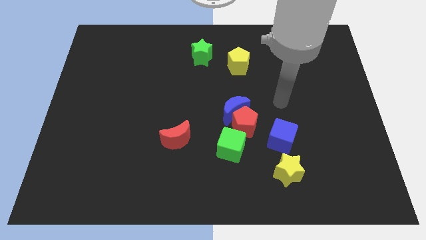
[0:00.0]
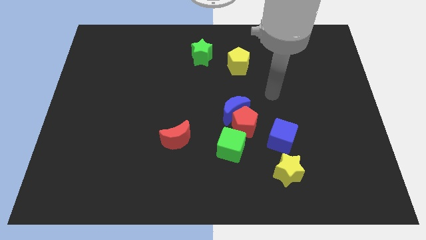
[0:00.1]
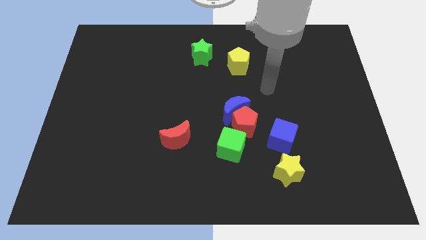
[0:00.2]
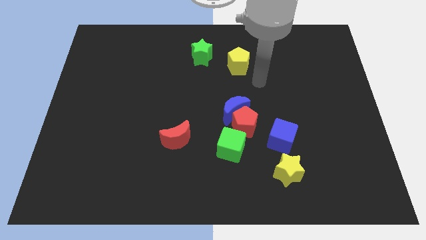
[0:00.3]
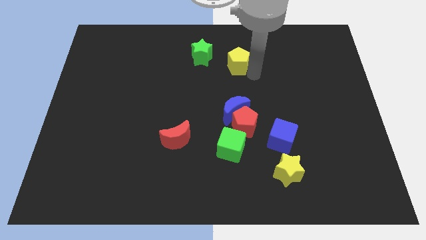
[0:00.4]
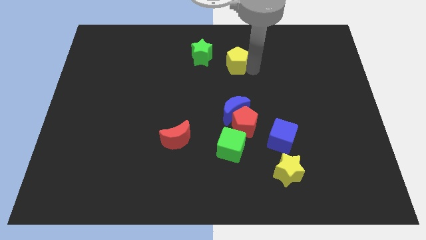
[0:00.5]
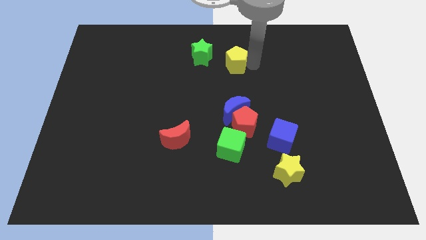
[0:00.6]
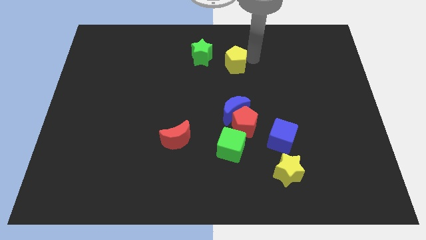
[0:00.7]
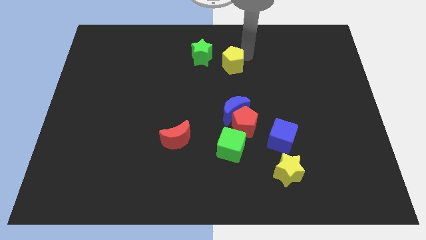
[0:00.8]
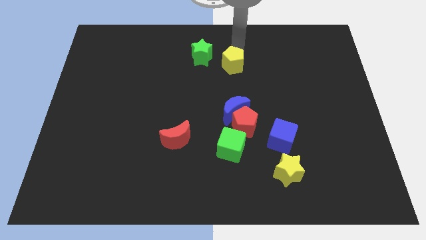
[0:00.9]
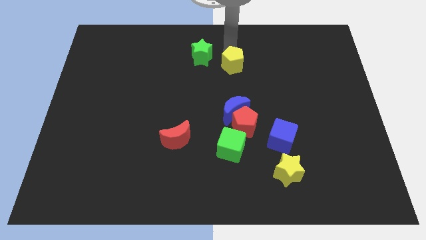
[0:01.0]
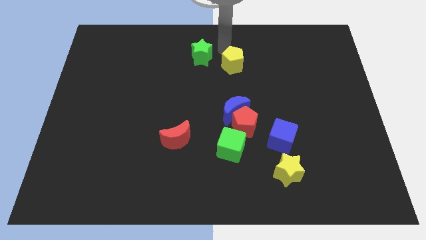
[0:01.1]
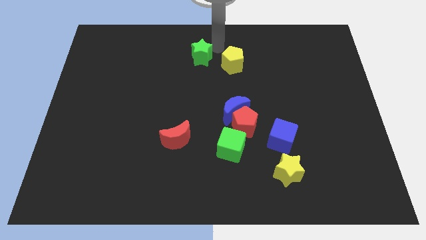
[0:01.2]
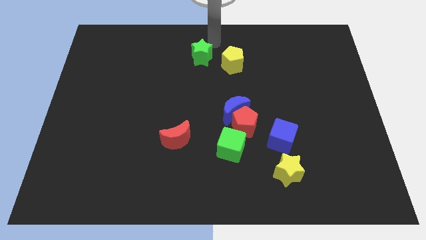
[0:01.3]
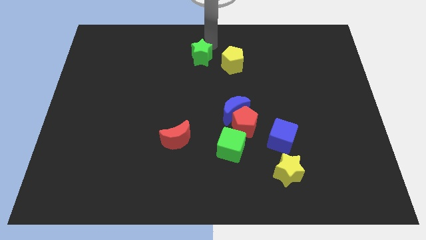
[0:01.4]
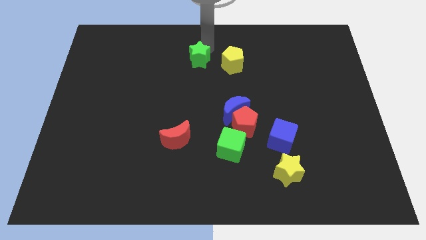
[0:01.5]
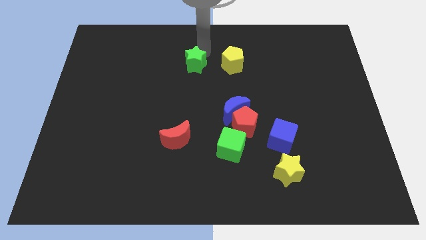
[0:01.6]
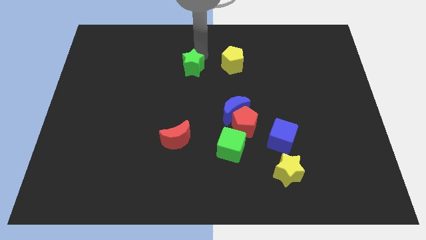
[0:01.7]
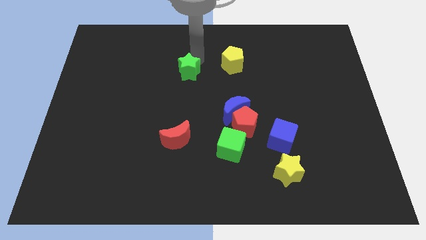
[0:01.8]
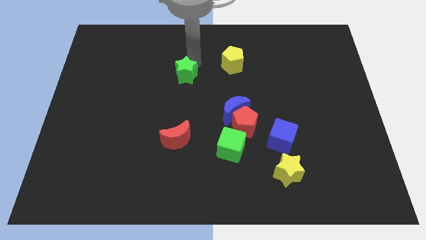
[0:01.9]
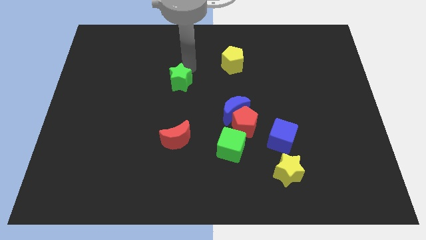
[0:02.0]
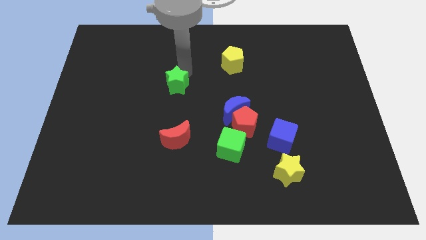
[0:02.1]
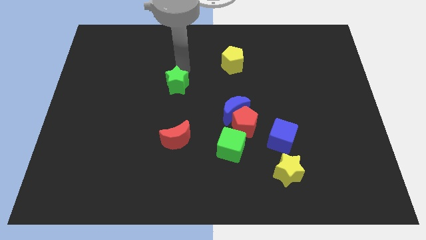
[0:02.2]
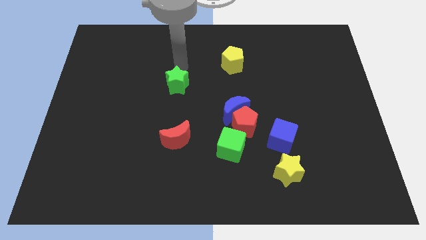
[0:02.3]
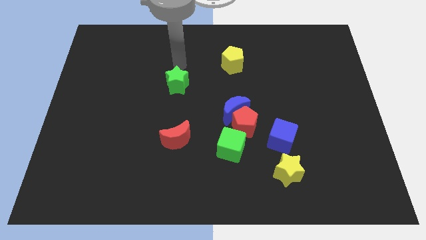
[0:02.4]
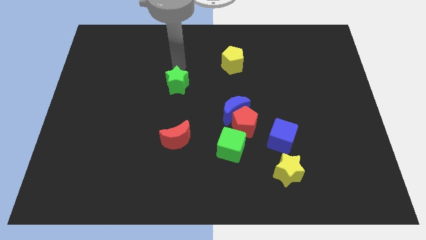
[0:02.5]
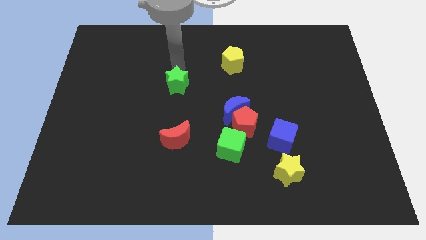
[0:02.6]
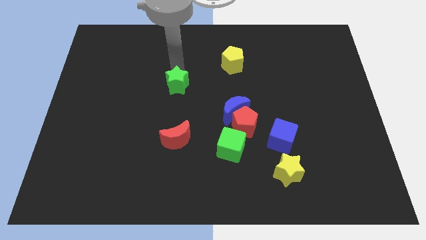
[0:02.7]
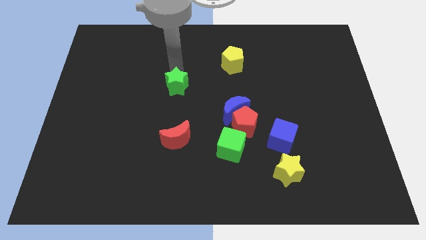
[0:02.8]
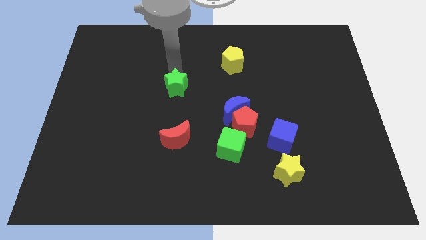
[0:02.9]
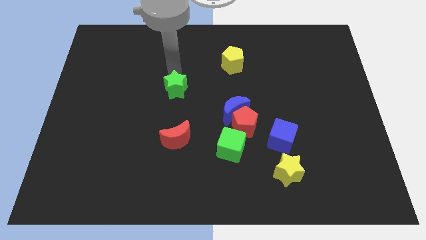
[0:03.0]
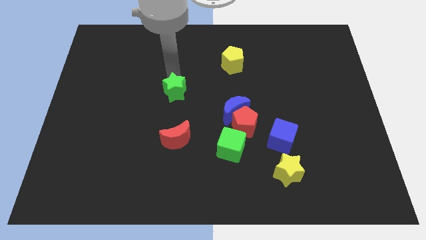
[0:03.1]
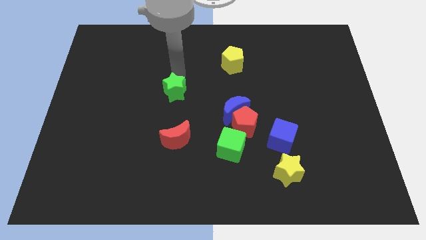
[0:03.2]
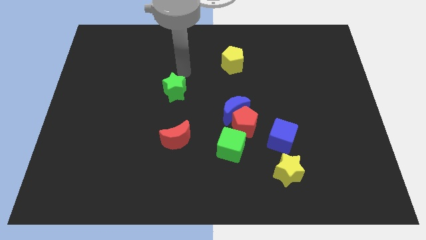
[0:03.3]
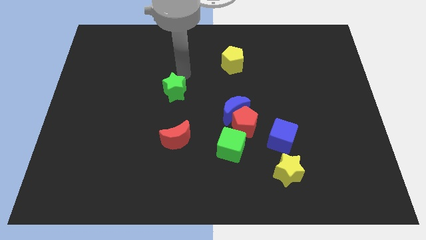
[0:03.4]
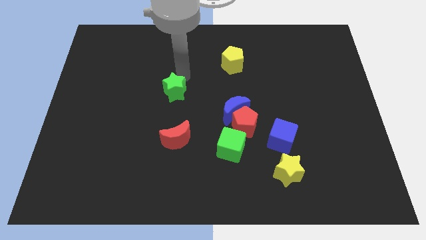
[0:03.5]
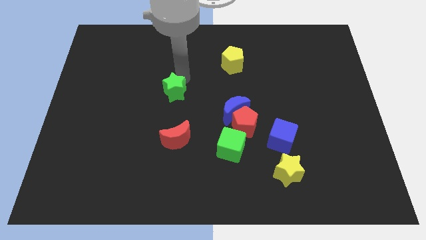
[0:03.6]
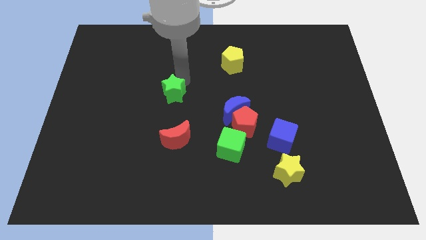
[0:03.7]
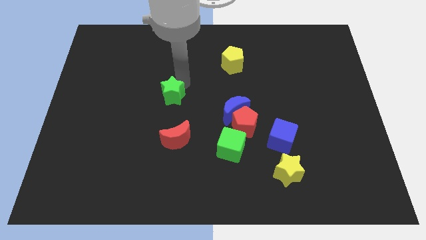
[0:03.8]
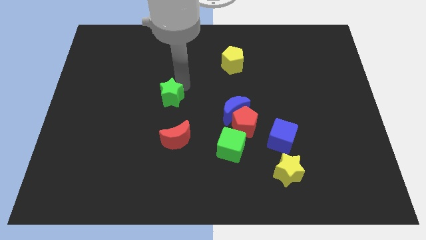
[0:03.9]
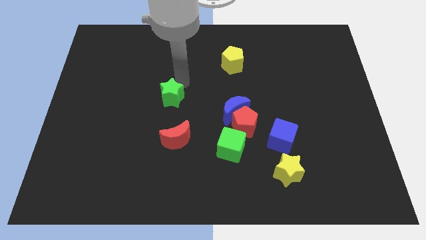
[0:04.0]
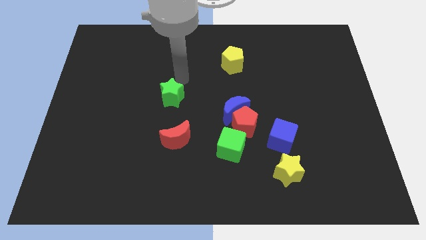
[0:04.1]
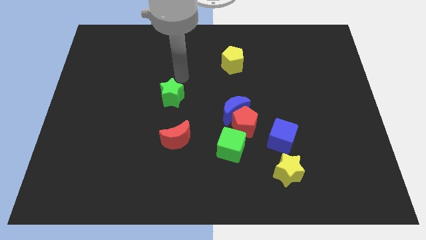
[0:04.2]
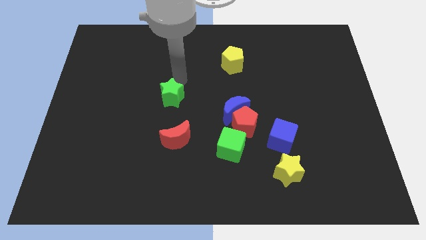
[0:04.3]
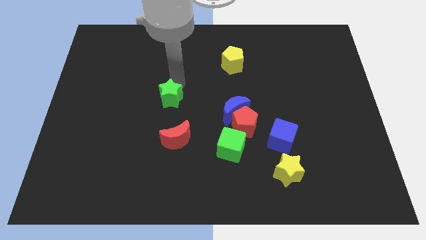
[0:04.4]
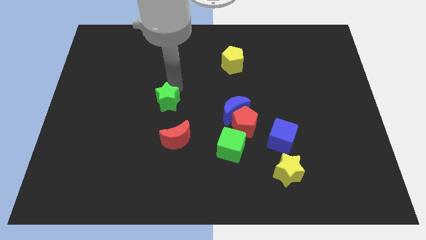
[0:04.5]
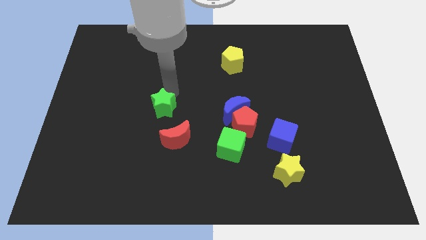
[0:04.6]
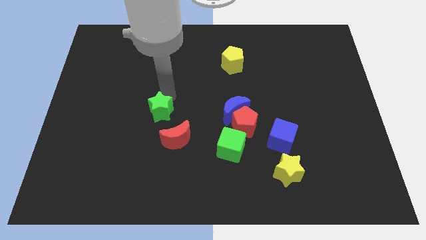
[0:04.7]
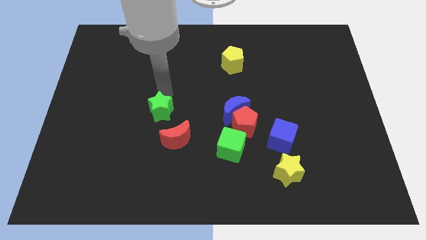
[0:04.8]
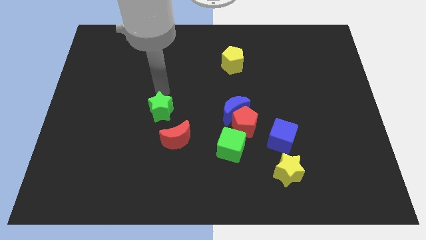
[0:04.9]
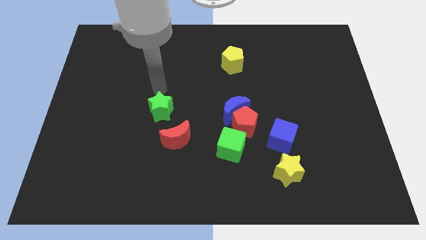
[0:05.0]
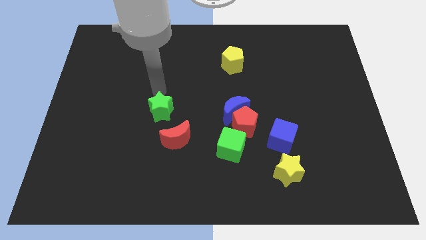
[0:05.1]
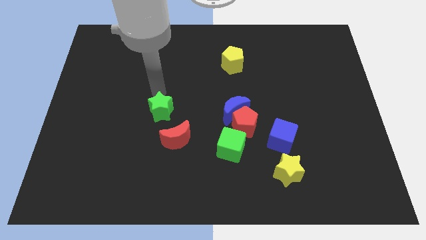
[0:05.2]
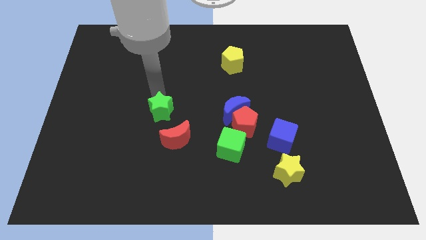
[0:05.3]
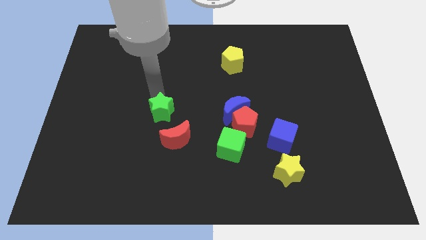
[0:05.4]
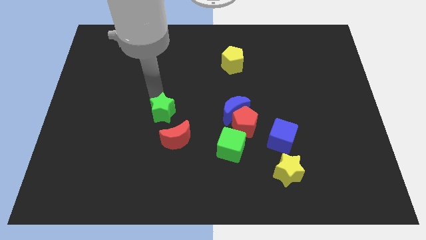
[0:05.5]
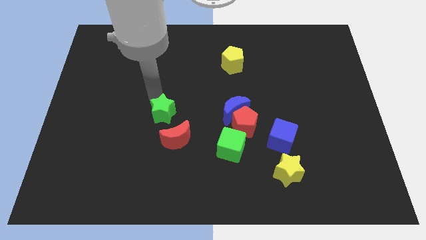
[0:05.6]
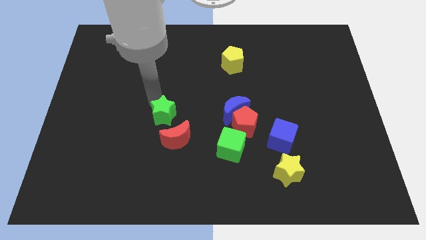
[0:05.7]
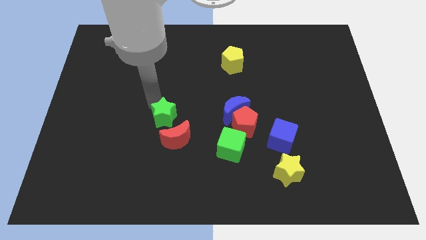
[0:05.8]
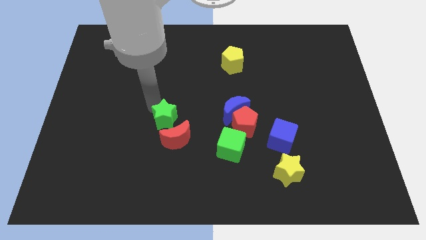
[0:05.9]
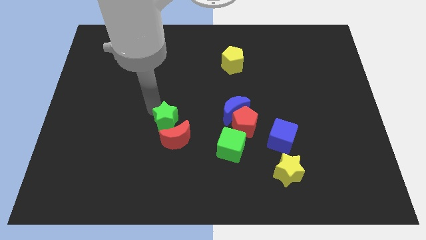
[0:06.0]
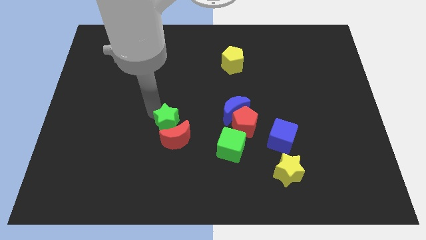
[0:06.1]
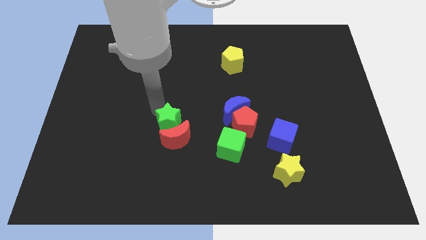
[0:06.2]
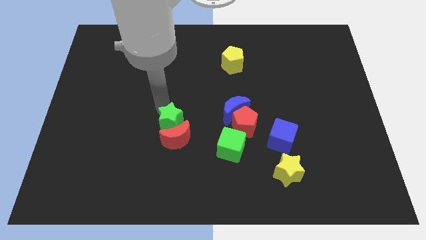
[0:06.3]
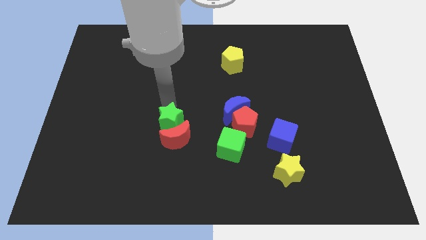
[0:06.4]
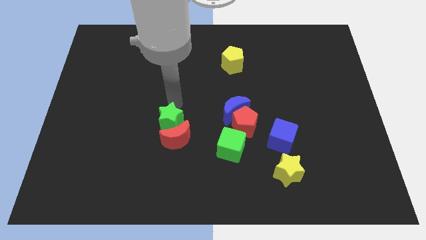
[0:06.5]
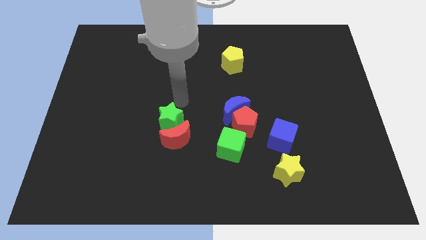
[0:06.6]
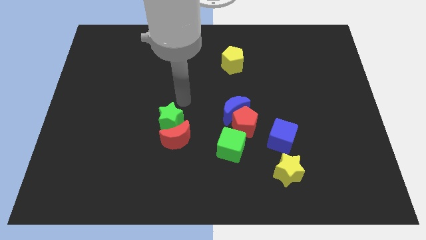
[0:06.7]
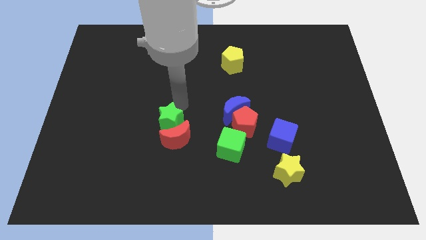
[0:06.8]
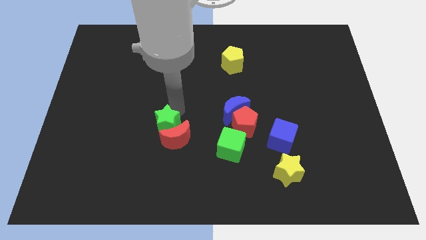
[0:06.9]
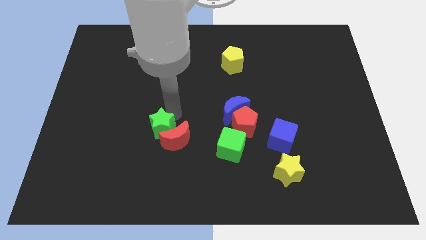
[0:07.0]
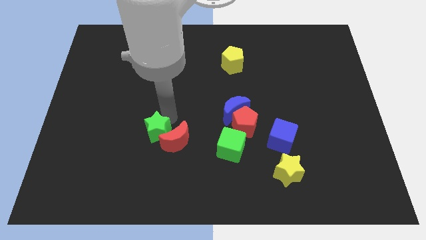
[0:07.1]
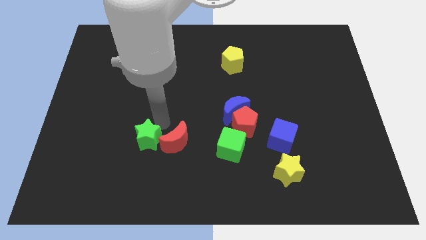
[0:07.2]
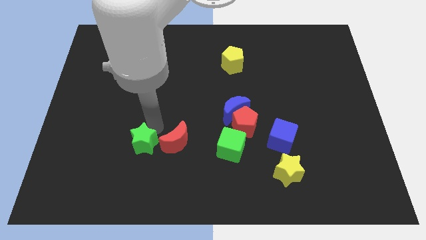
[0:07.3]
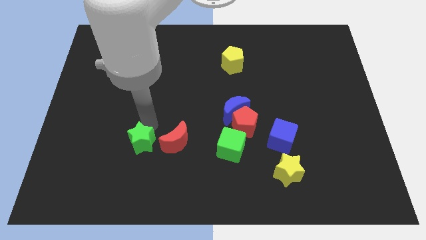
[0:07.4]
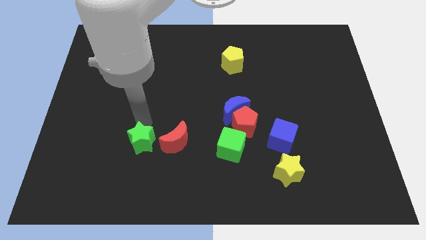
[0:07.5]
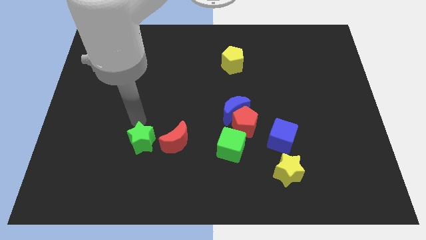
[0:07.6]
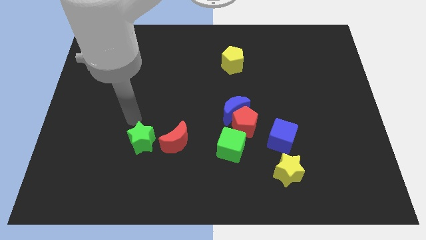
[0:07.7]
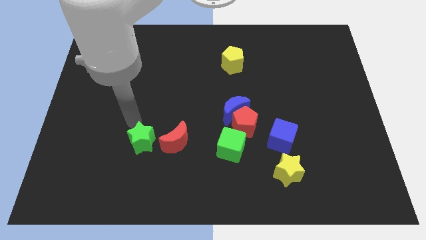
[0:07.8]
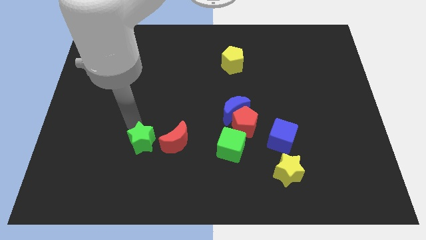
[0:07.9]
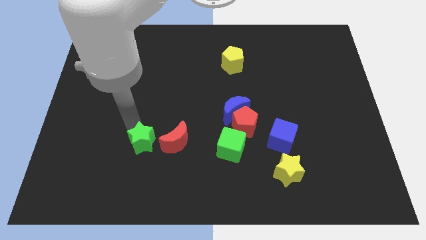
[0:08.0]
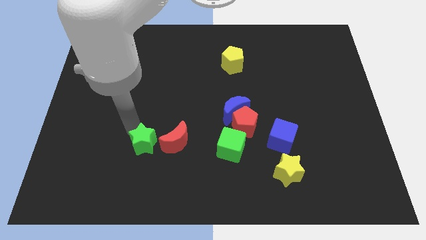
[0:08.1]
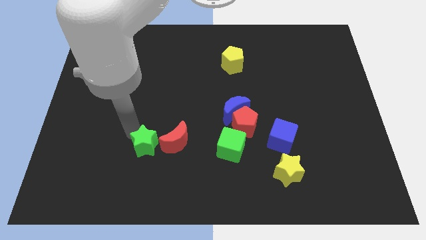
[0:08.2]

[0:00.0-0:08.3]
slide the green star diagonally down and to the left of the red moon
